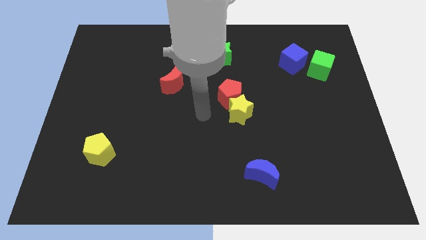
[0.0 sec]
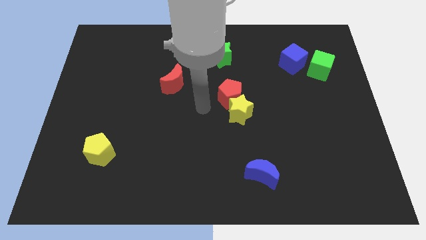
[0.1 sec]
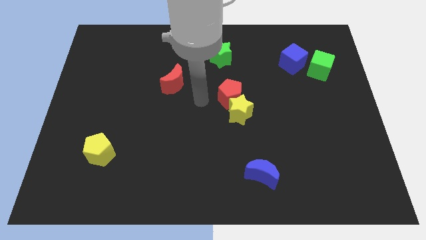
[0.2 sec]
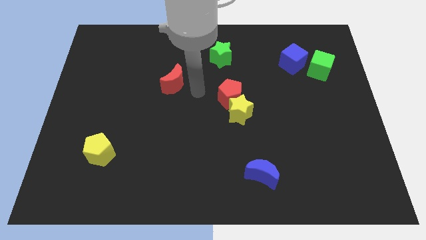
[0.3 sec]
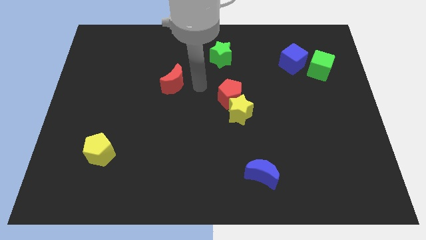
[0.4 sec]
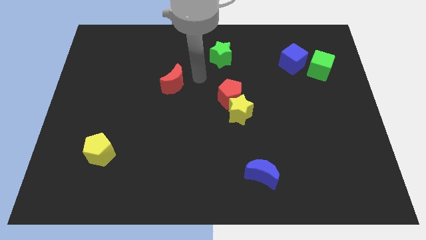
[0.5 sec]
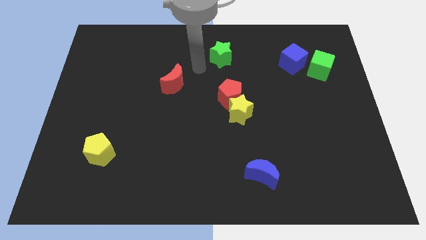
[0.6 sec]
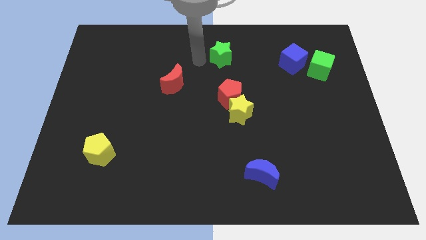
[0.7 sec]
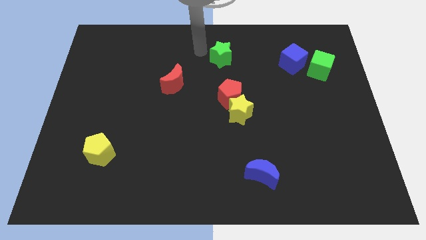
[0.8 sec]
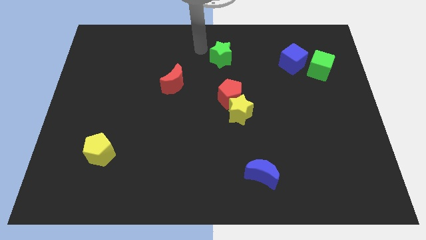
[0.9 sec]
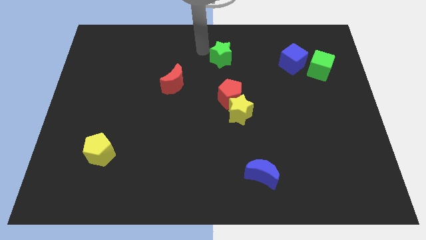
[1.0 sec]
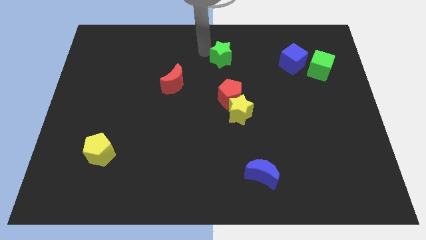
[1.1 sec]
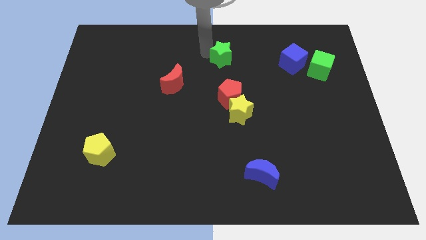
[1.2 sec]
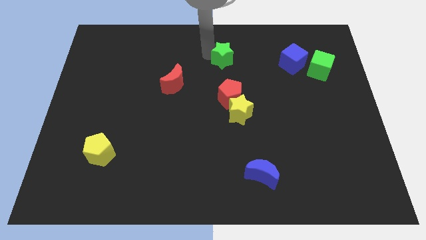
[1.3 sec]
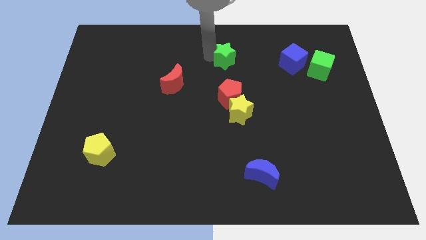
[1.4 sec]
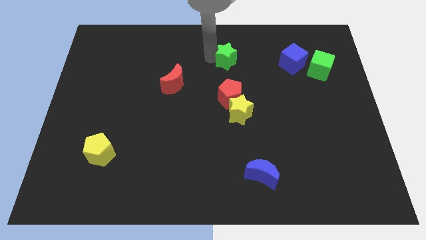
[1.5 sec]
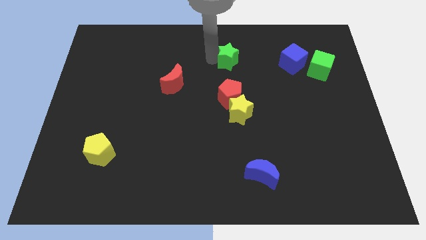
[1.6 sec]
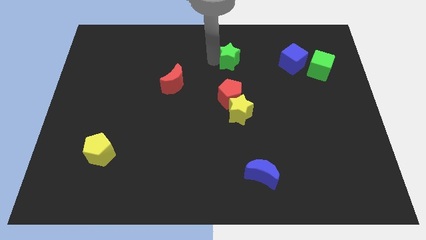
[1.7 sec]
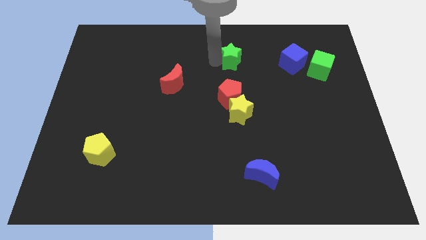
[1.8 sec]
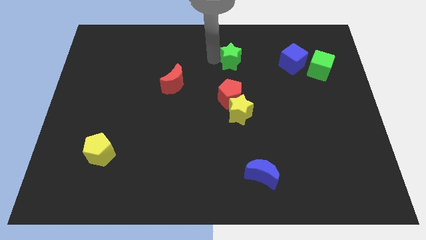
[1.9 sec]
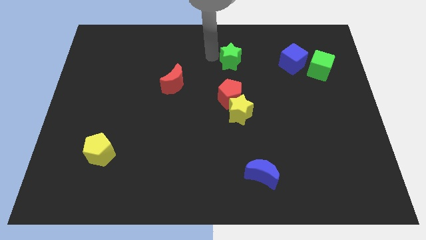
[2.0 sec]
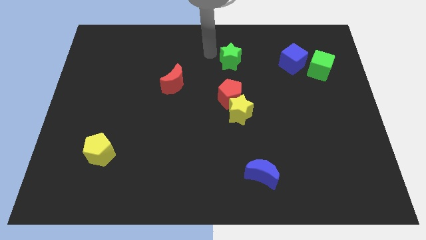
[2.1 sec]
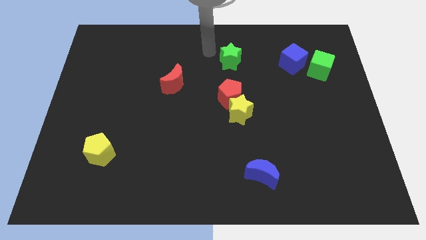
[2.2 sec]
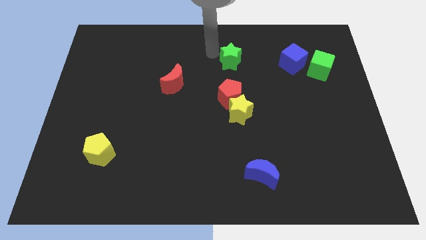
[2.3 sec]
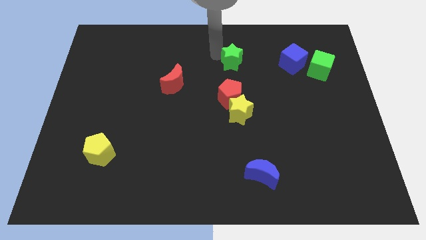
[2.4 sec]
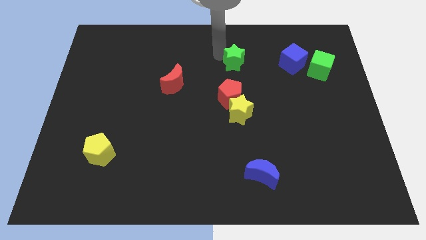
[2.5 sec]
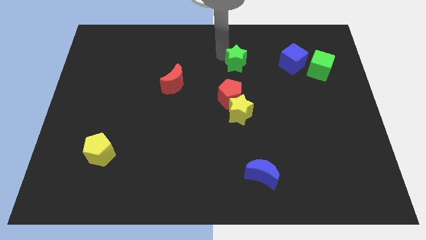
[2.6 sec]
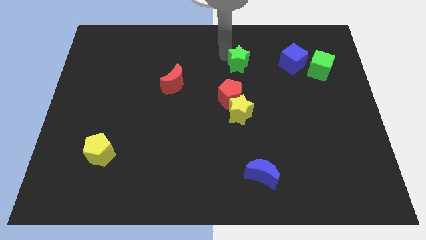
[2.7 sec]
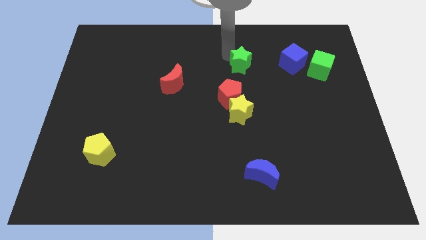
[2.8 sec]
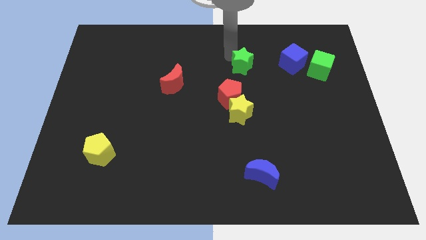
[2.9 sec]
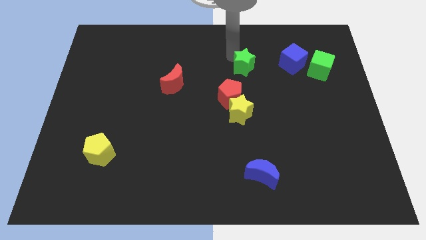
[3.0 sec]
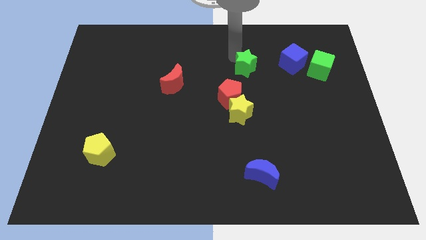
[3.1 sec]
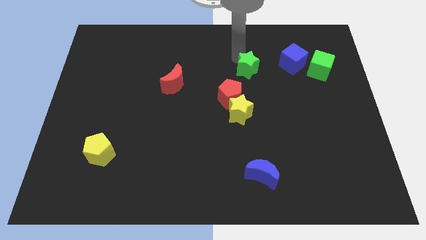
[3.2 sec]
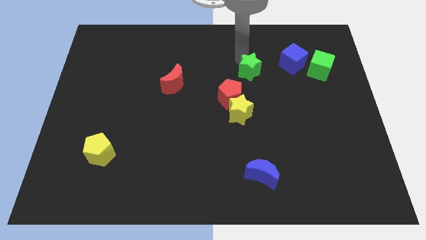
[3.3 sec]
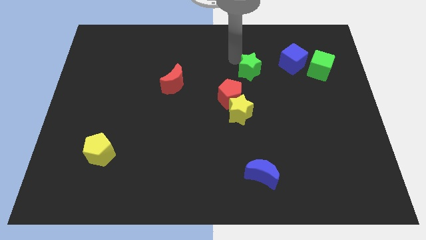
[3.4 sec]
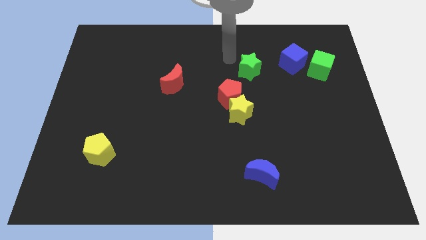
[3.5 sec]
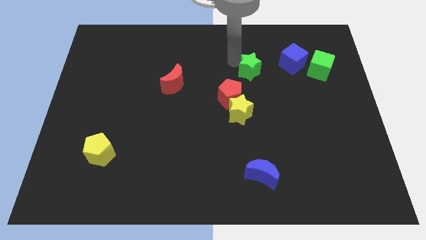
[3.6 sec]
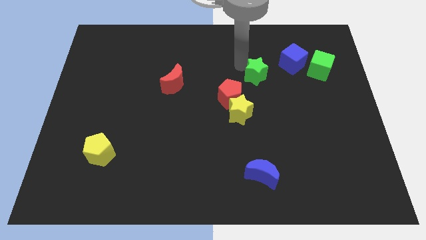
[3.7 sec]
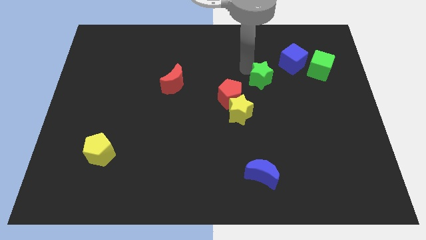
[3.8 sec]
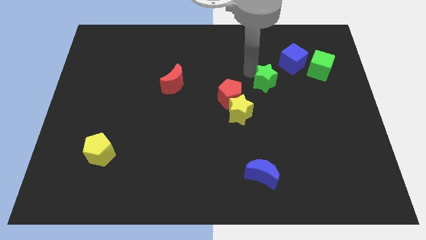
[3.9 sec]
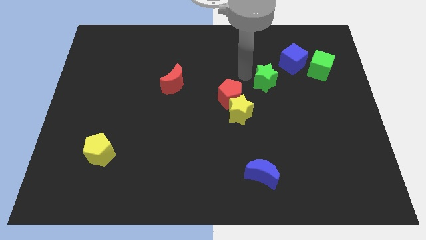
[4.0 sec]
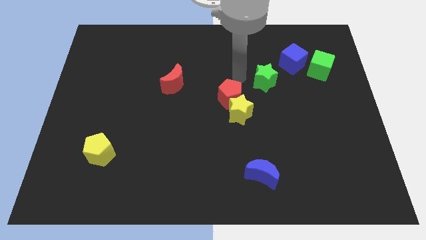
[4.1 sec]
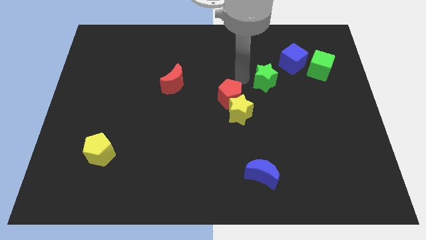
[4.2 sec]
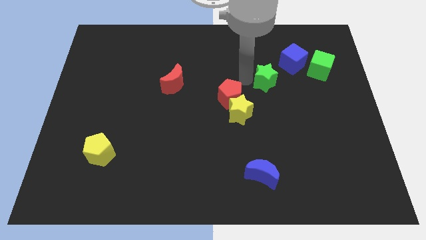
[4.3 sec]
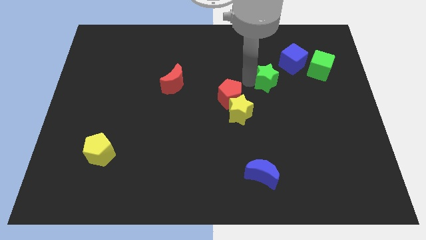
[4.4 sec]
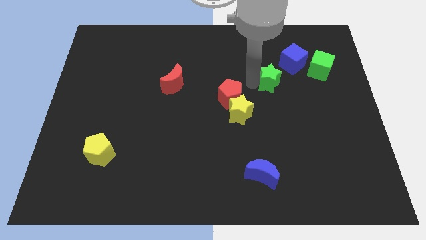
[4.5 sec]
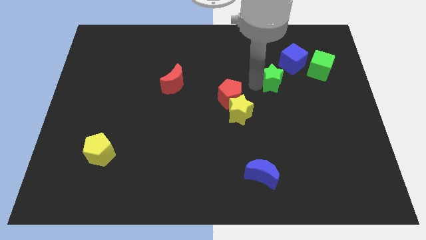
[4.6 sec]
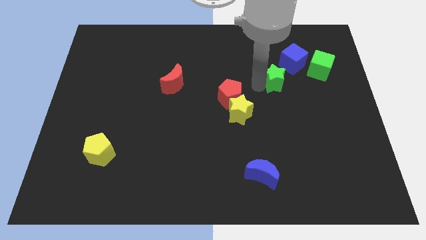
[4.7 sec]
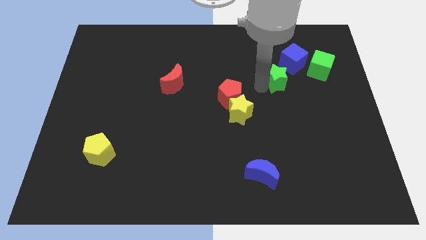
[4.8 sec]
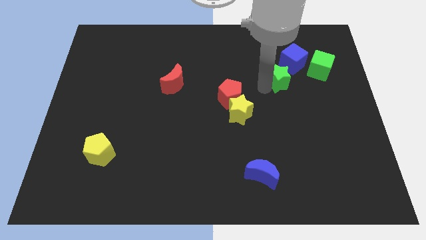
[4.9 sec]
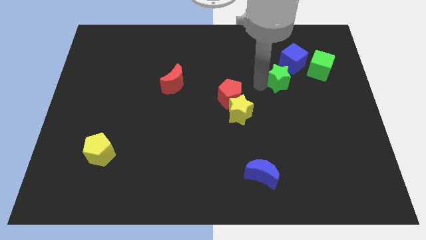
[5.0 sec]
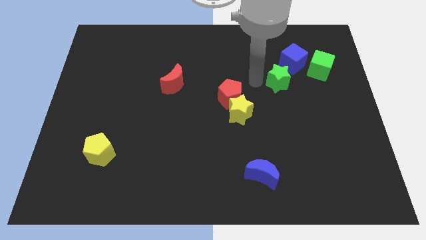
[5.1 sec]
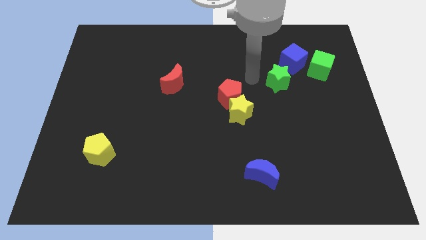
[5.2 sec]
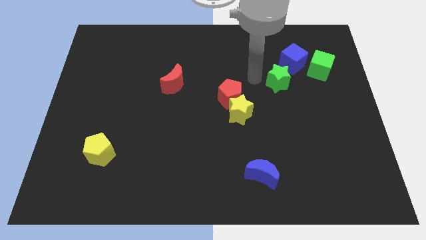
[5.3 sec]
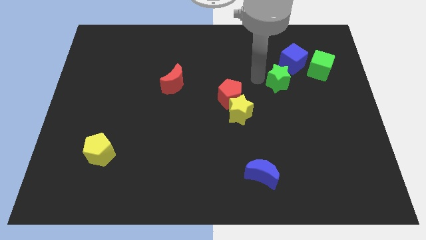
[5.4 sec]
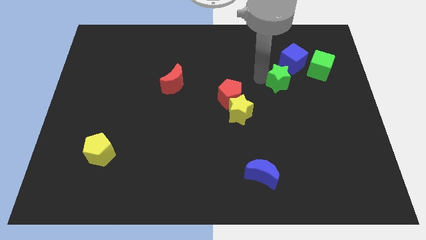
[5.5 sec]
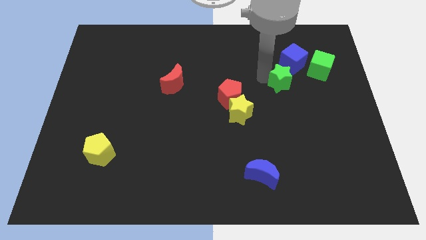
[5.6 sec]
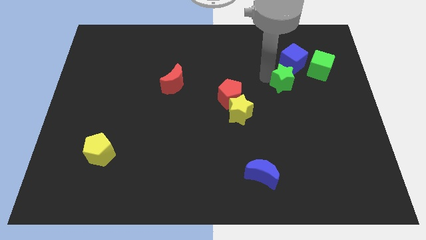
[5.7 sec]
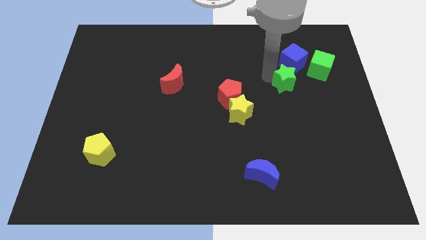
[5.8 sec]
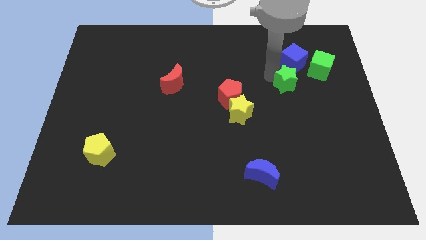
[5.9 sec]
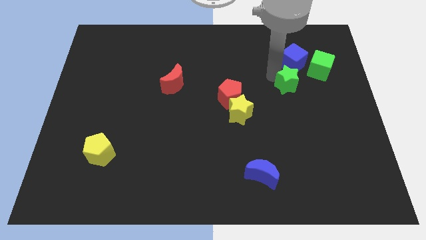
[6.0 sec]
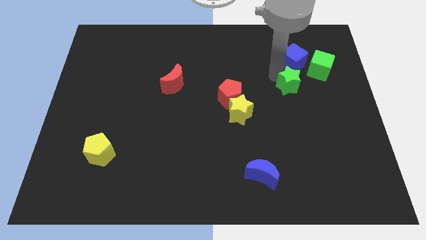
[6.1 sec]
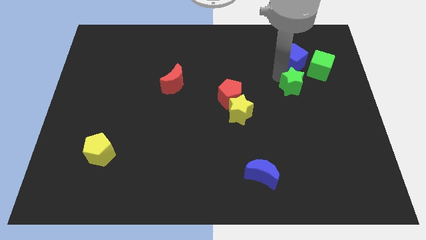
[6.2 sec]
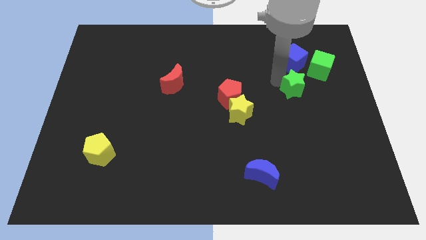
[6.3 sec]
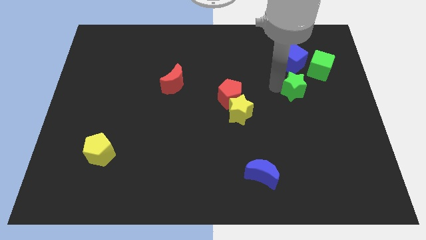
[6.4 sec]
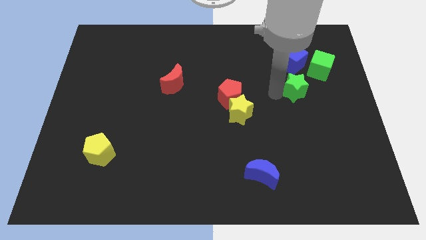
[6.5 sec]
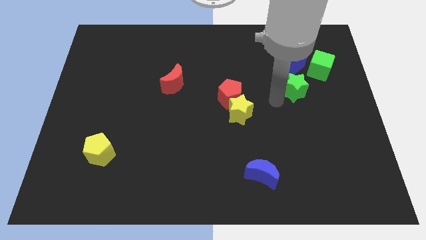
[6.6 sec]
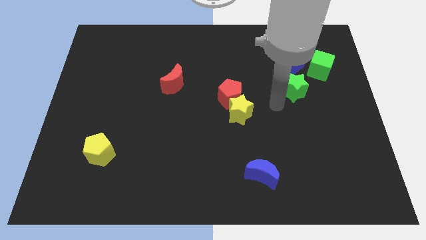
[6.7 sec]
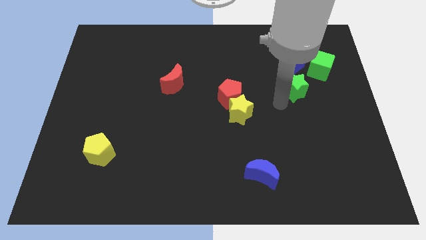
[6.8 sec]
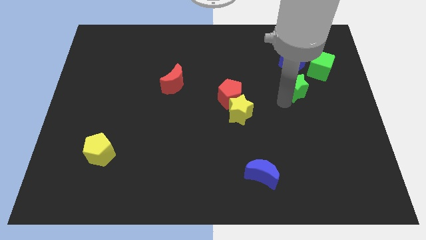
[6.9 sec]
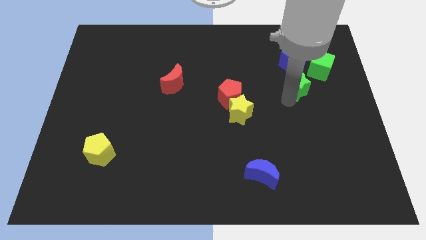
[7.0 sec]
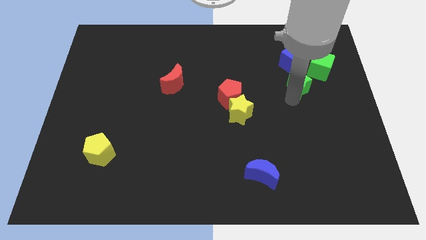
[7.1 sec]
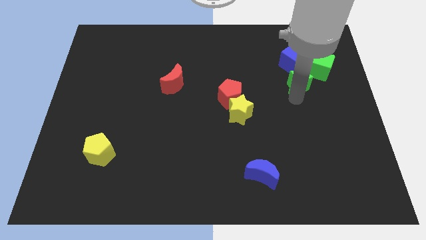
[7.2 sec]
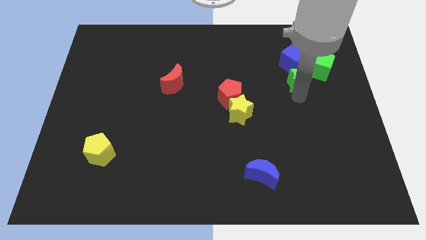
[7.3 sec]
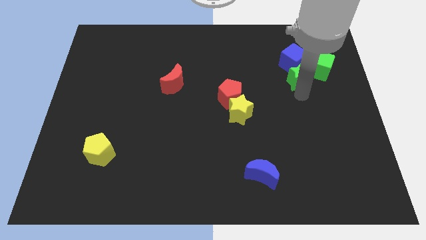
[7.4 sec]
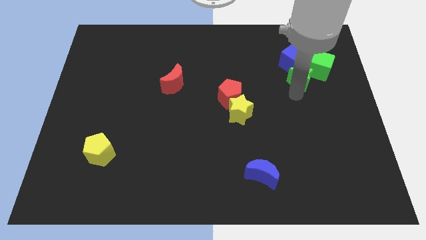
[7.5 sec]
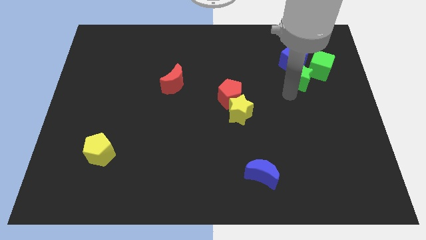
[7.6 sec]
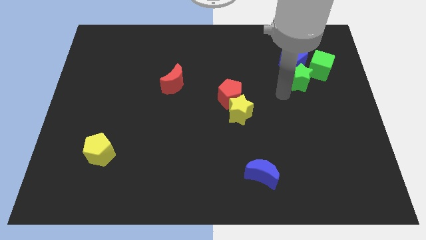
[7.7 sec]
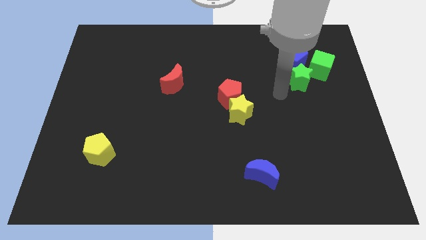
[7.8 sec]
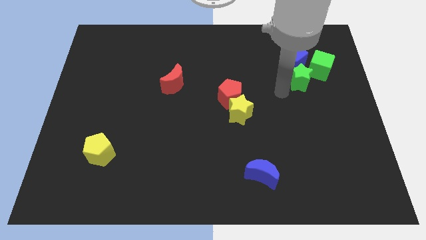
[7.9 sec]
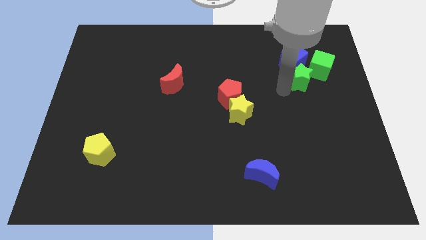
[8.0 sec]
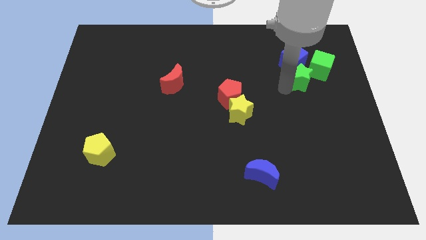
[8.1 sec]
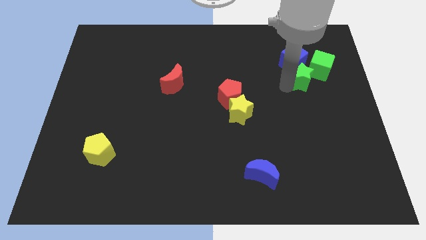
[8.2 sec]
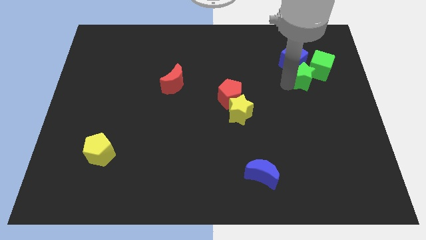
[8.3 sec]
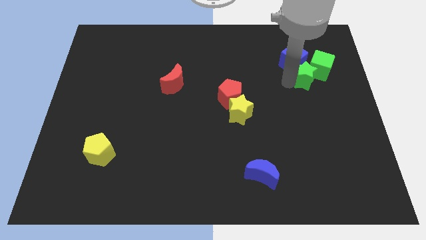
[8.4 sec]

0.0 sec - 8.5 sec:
move the green star to the green cube
